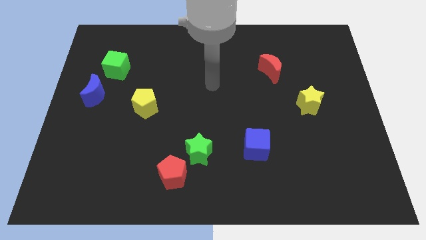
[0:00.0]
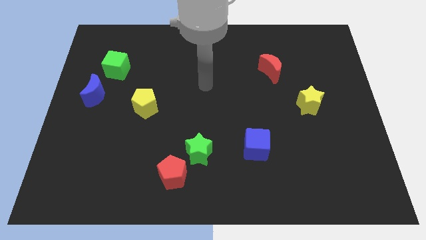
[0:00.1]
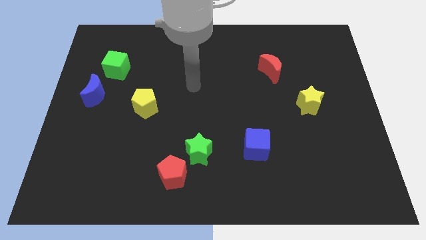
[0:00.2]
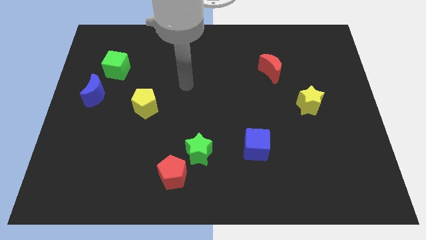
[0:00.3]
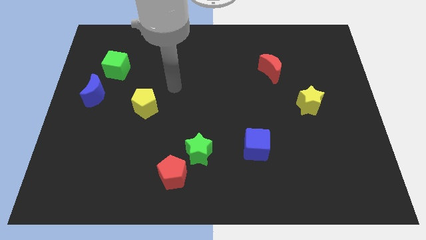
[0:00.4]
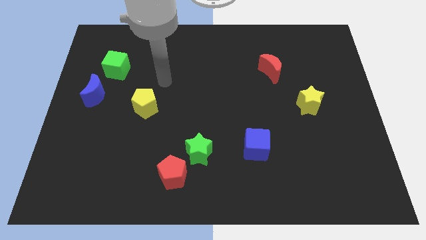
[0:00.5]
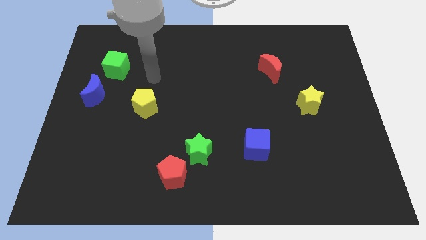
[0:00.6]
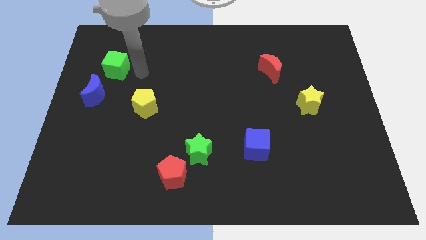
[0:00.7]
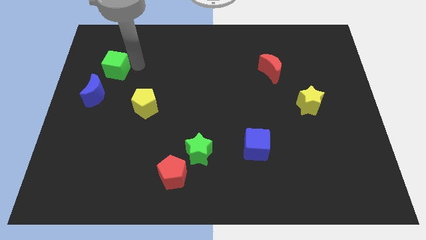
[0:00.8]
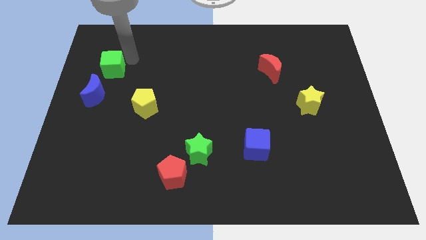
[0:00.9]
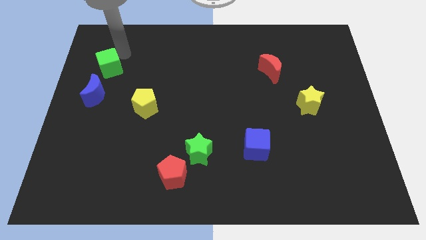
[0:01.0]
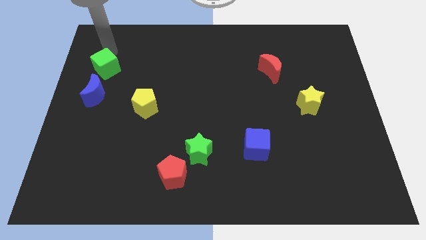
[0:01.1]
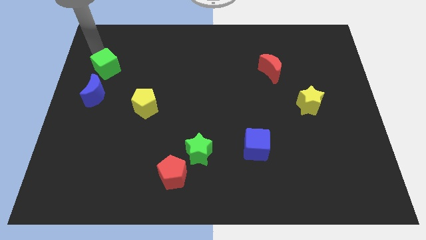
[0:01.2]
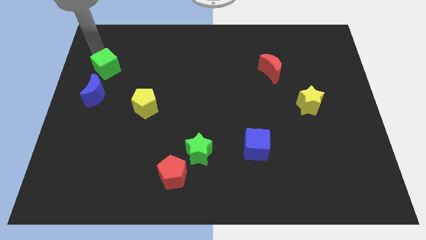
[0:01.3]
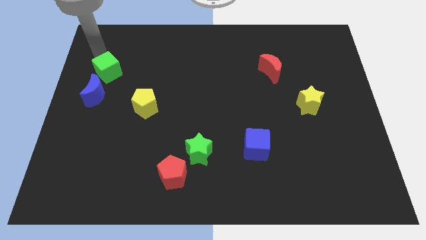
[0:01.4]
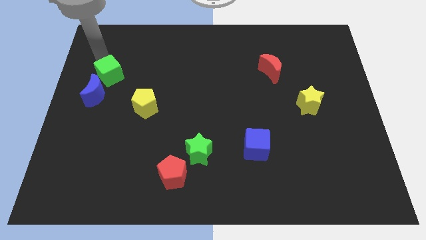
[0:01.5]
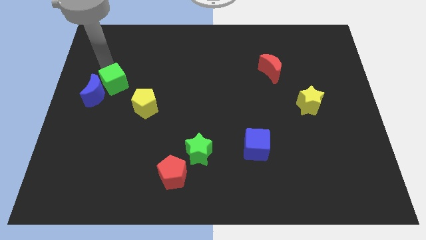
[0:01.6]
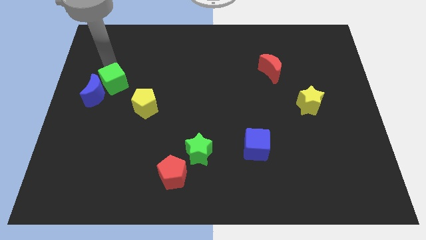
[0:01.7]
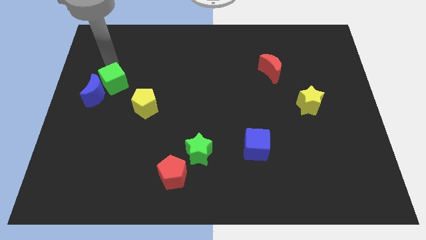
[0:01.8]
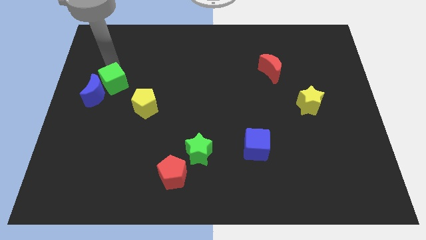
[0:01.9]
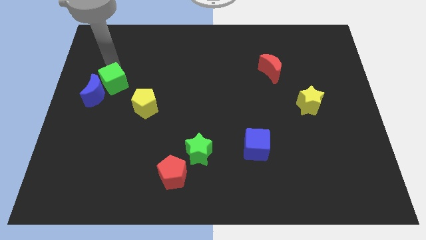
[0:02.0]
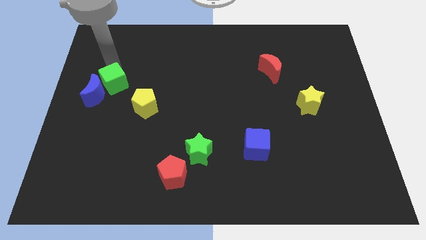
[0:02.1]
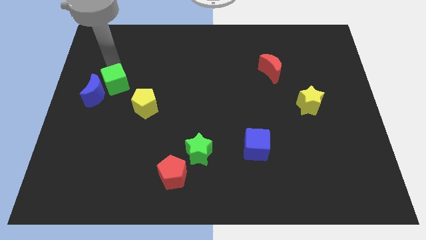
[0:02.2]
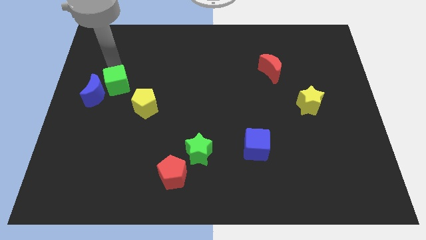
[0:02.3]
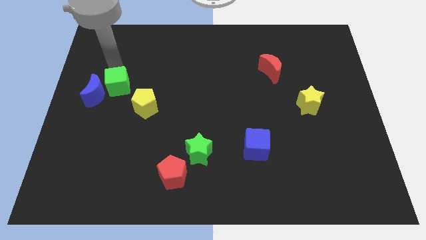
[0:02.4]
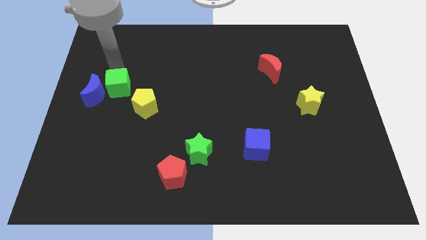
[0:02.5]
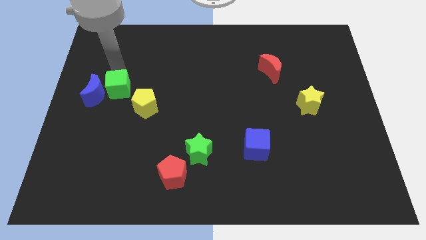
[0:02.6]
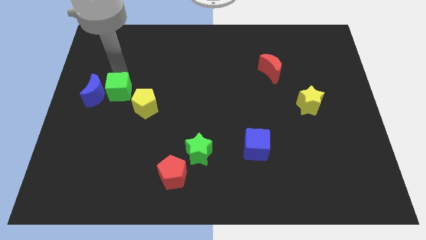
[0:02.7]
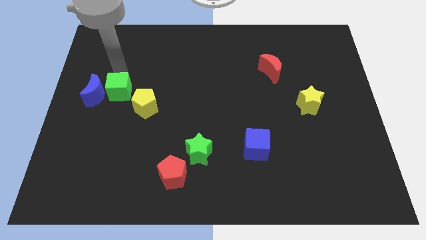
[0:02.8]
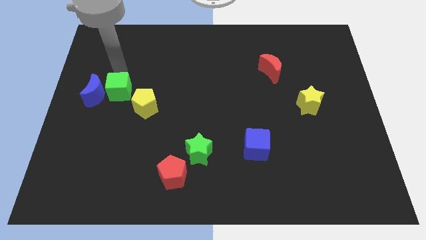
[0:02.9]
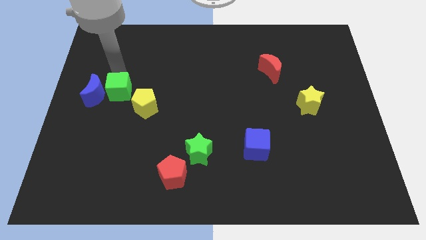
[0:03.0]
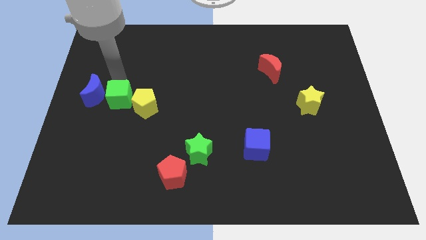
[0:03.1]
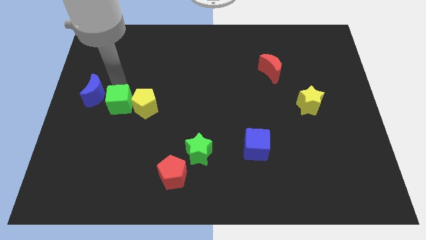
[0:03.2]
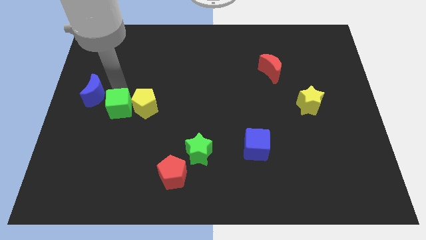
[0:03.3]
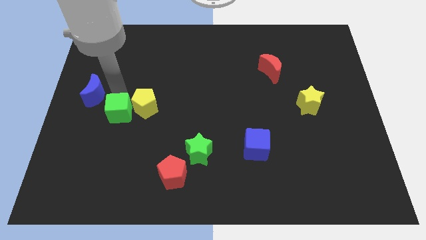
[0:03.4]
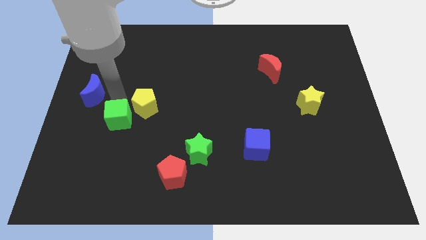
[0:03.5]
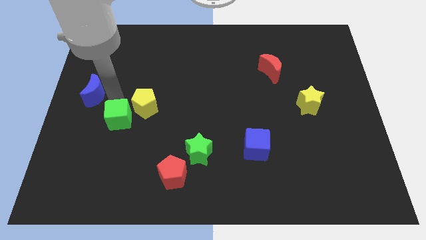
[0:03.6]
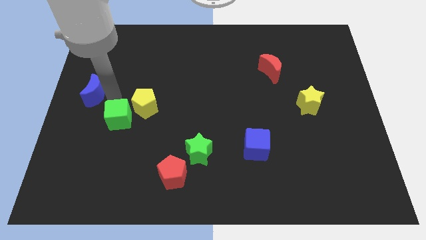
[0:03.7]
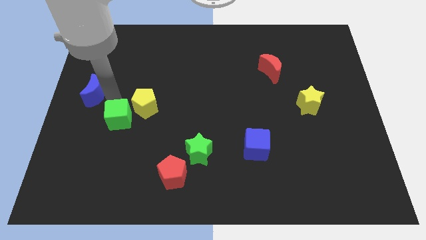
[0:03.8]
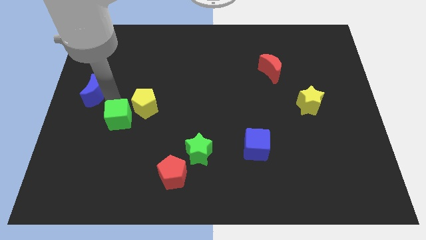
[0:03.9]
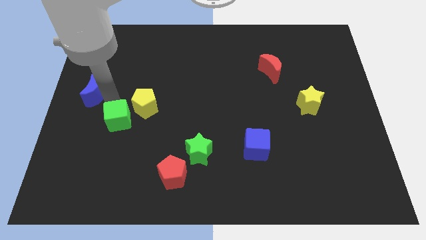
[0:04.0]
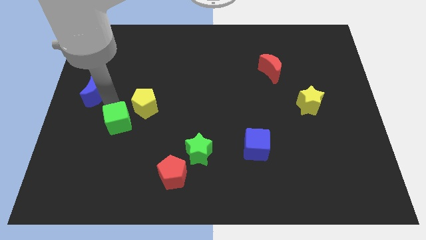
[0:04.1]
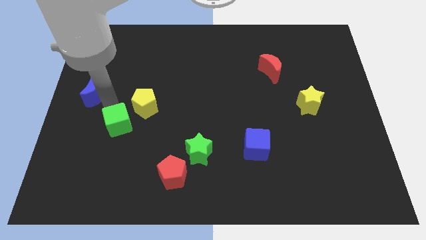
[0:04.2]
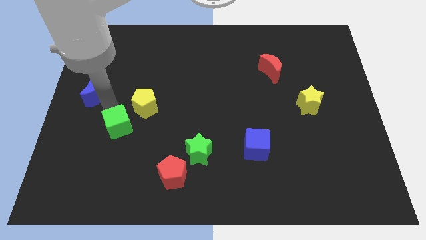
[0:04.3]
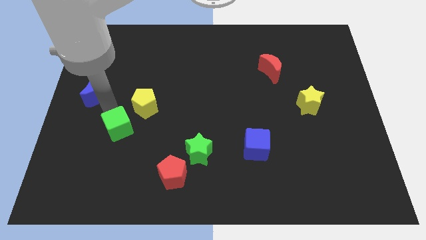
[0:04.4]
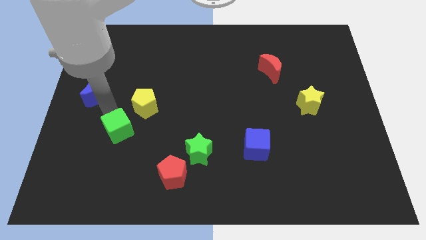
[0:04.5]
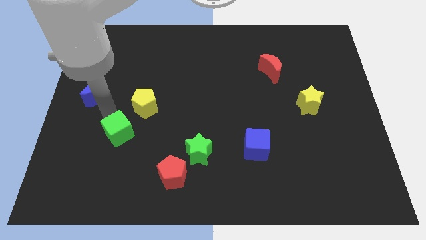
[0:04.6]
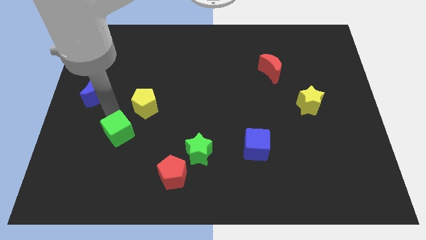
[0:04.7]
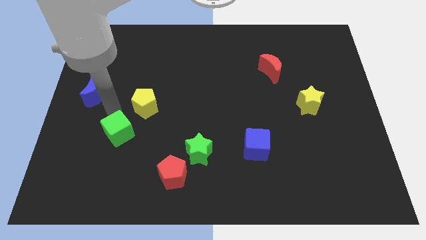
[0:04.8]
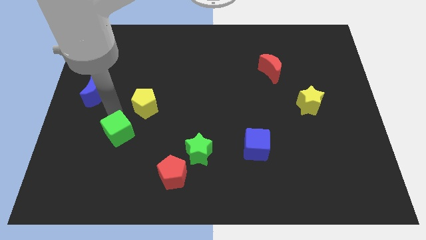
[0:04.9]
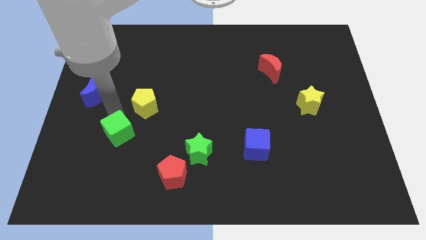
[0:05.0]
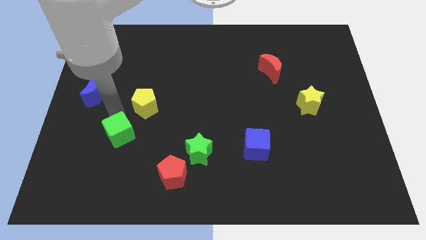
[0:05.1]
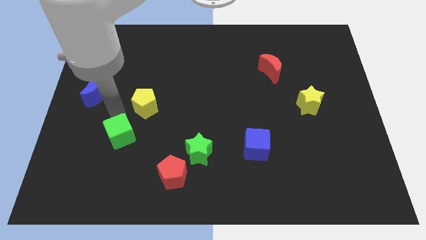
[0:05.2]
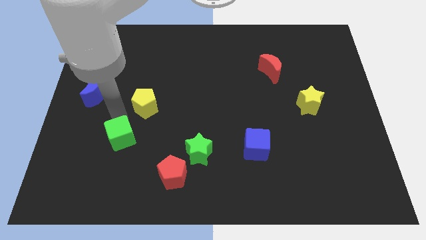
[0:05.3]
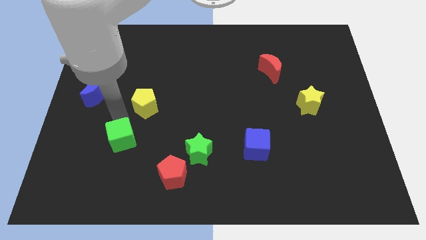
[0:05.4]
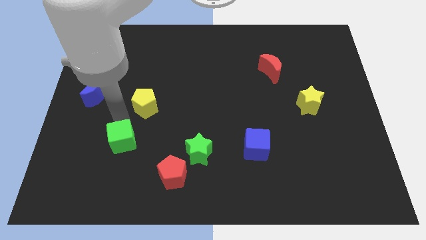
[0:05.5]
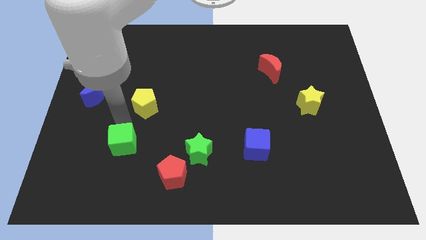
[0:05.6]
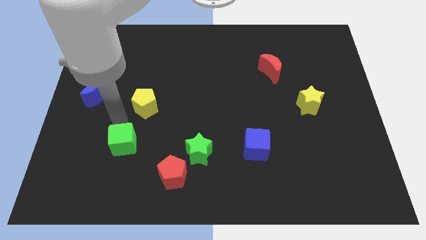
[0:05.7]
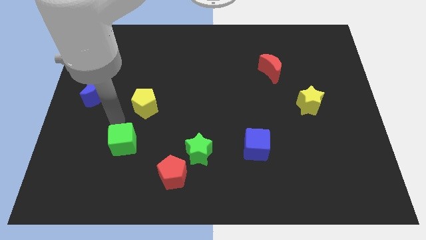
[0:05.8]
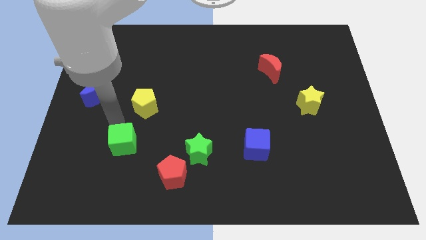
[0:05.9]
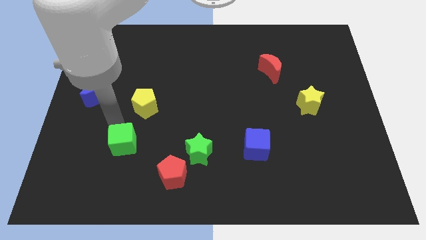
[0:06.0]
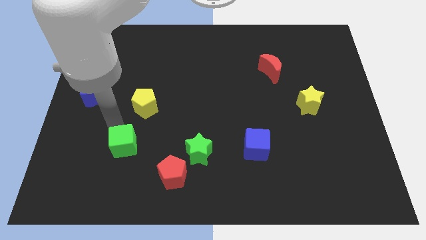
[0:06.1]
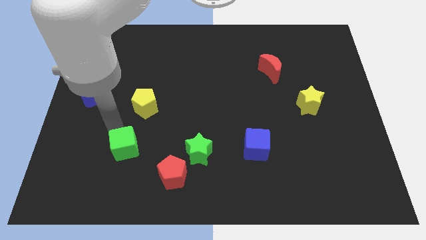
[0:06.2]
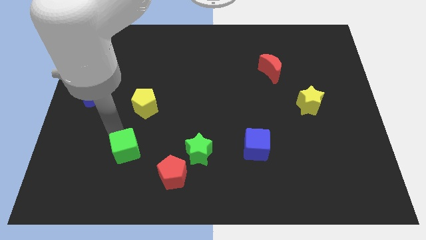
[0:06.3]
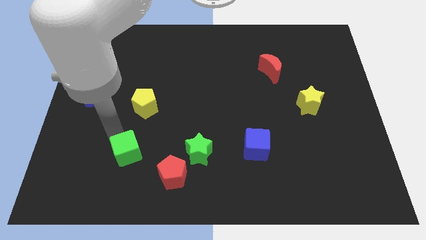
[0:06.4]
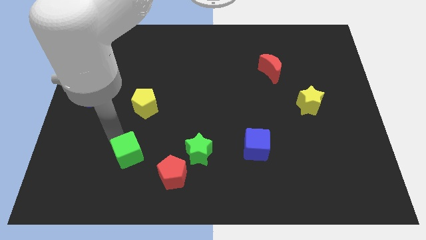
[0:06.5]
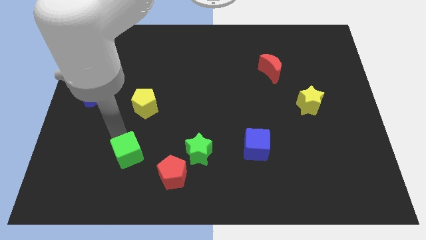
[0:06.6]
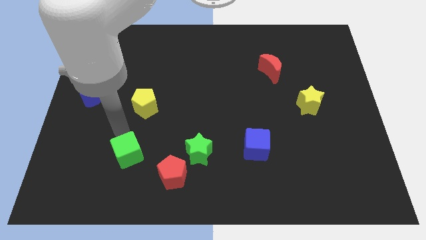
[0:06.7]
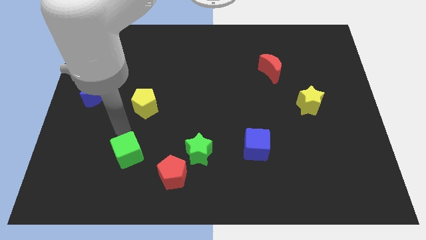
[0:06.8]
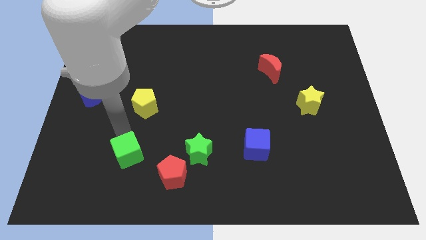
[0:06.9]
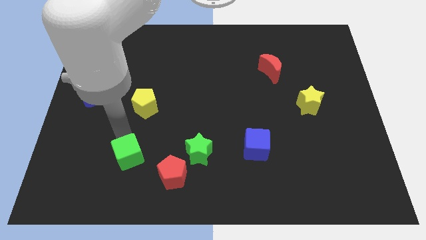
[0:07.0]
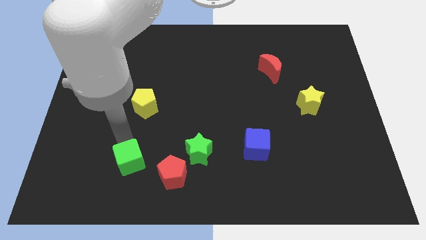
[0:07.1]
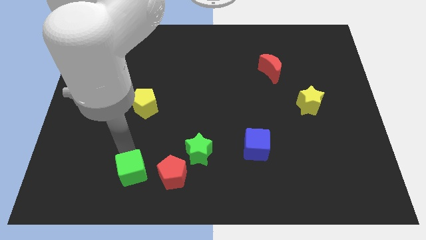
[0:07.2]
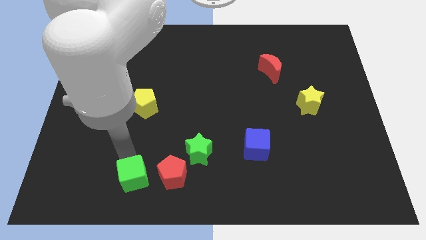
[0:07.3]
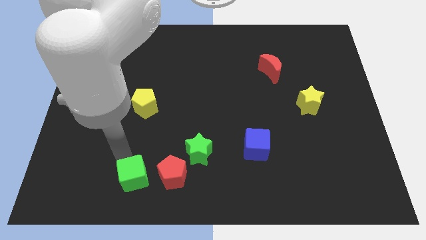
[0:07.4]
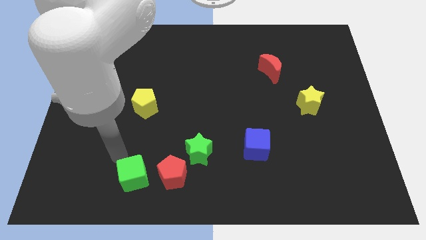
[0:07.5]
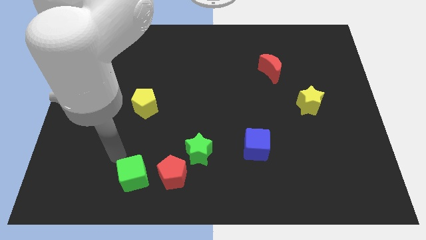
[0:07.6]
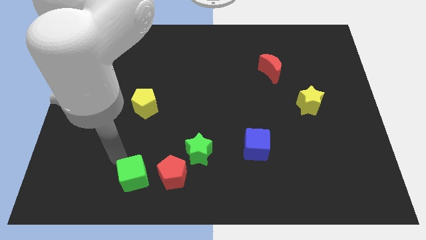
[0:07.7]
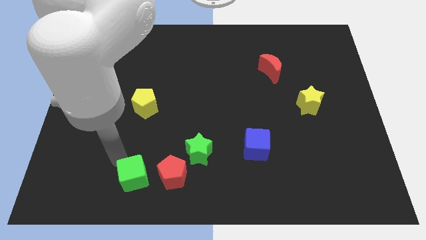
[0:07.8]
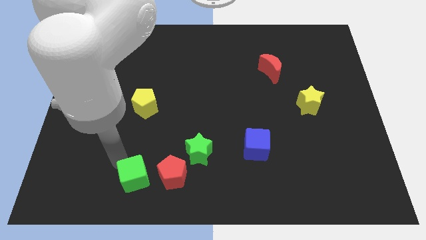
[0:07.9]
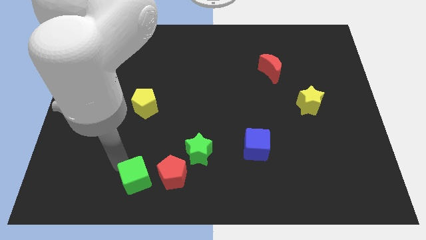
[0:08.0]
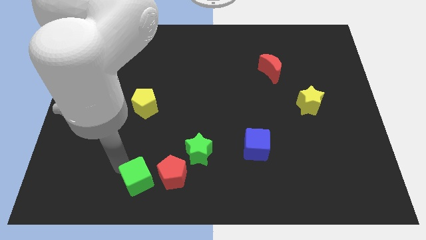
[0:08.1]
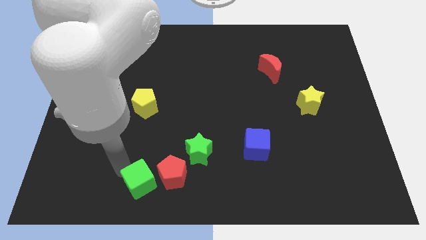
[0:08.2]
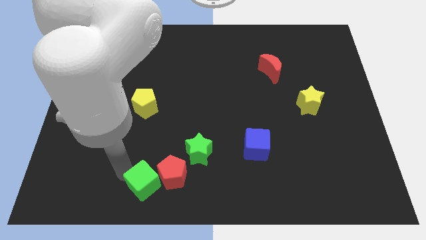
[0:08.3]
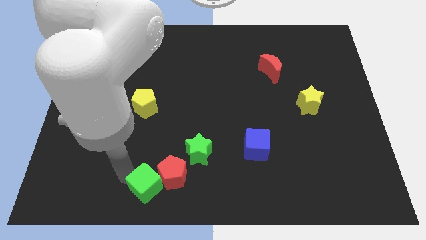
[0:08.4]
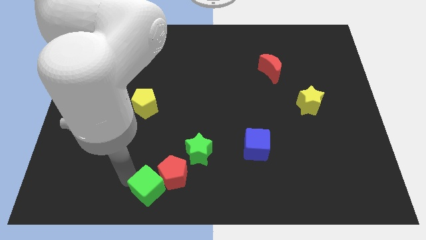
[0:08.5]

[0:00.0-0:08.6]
move the green cube to the bottom
